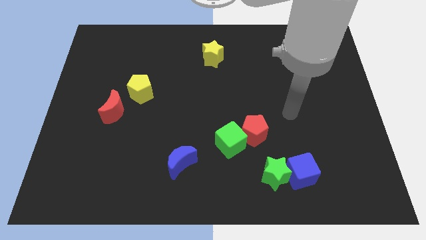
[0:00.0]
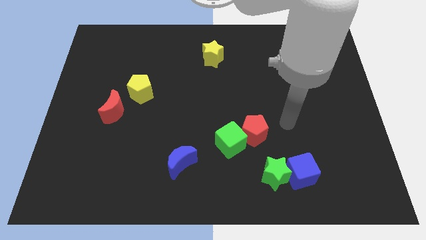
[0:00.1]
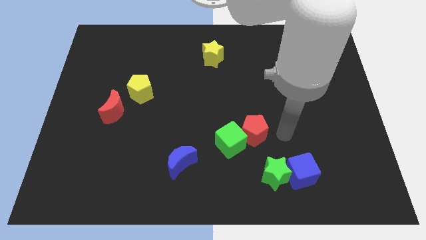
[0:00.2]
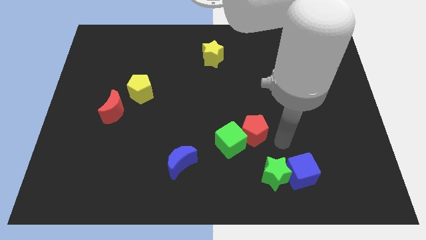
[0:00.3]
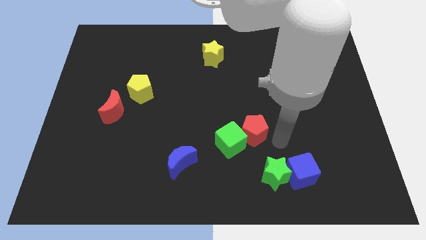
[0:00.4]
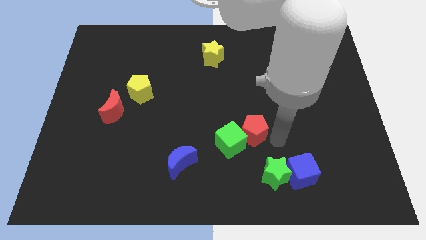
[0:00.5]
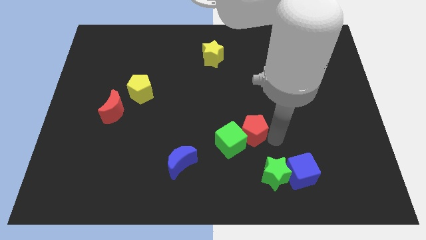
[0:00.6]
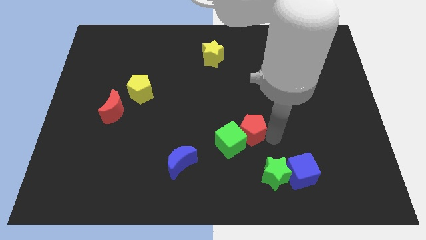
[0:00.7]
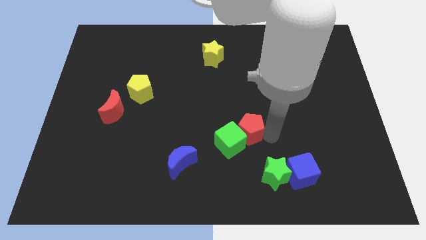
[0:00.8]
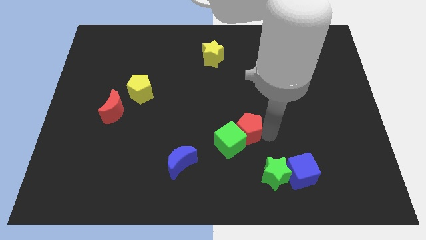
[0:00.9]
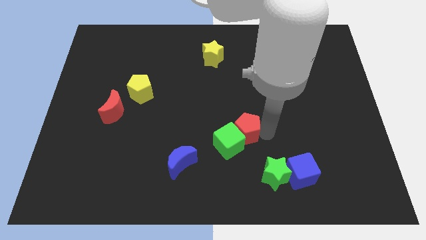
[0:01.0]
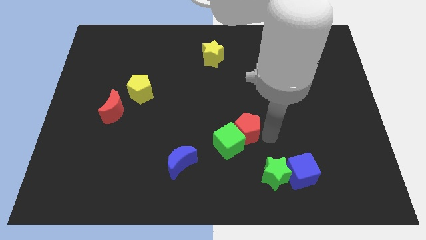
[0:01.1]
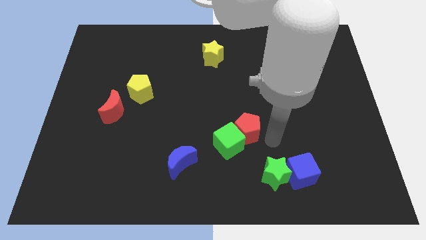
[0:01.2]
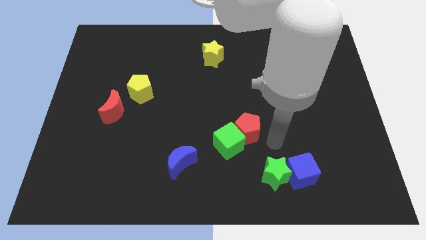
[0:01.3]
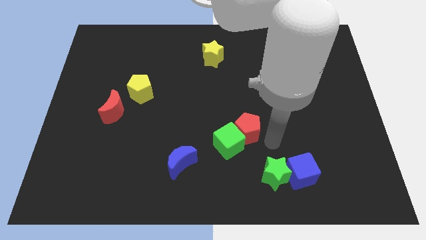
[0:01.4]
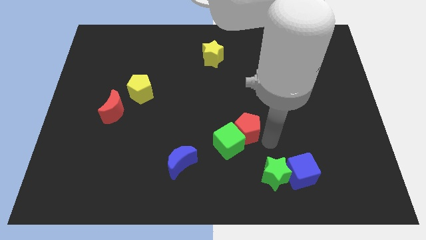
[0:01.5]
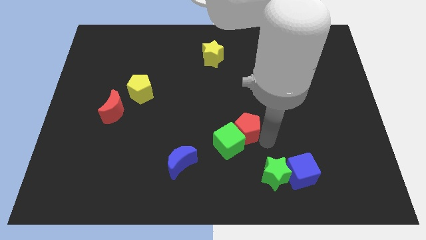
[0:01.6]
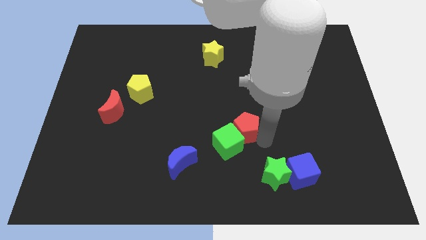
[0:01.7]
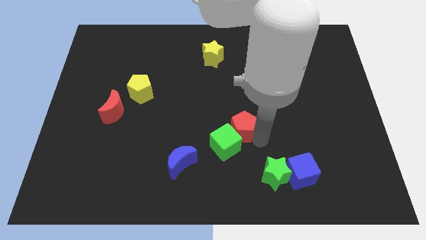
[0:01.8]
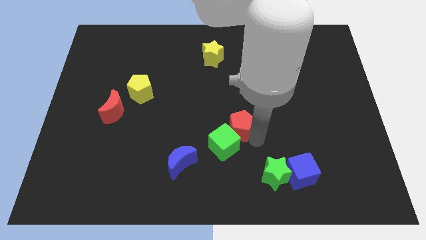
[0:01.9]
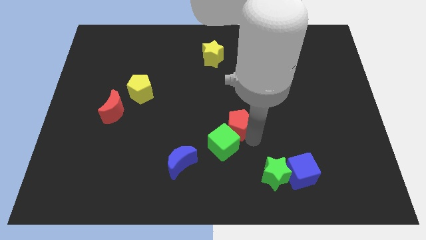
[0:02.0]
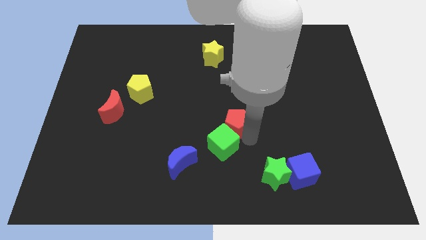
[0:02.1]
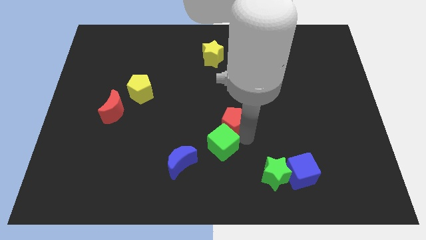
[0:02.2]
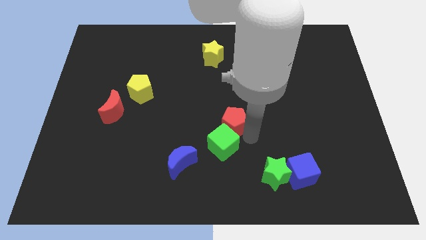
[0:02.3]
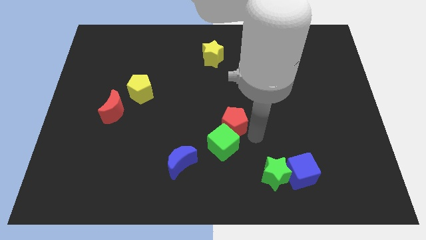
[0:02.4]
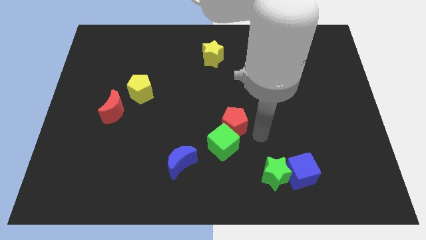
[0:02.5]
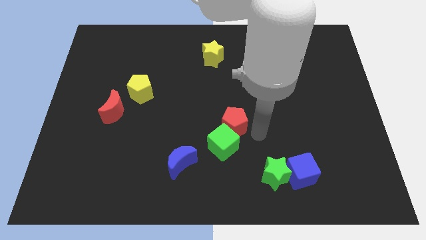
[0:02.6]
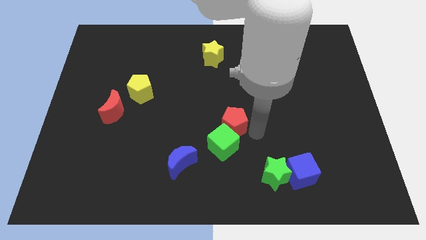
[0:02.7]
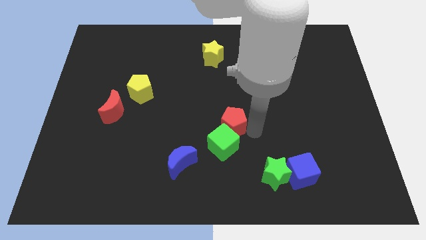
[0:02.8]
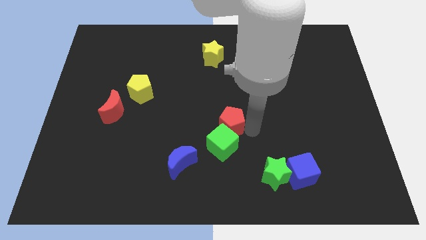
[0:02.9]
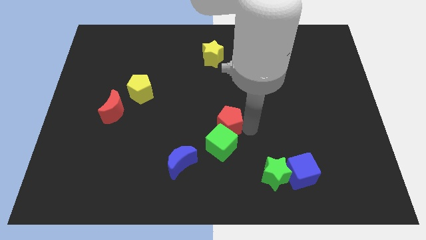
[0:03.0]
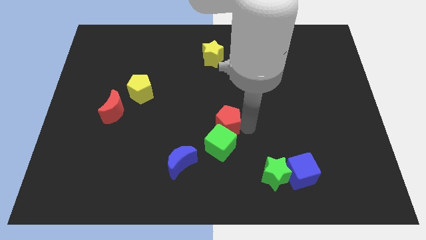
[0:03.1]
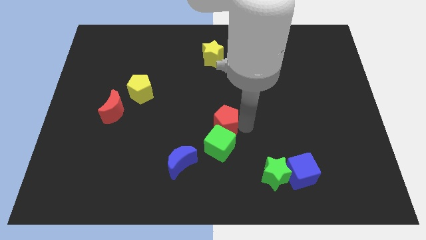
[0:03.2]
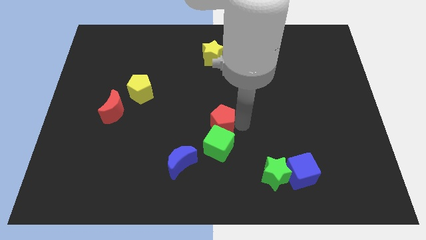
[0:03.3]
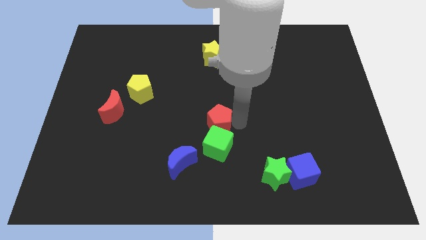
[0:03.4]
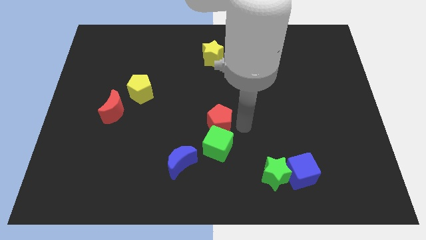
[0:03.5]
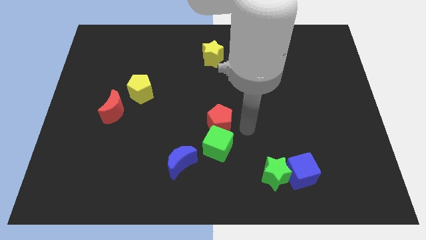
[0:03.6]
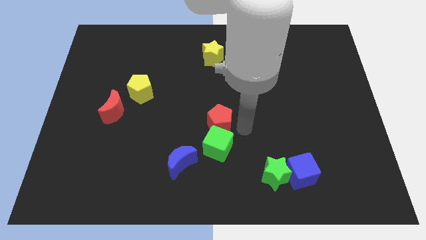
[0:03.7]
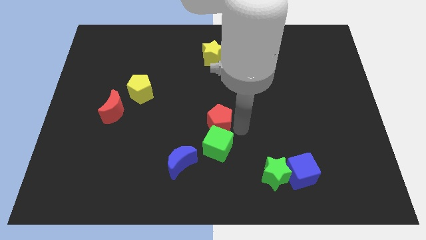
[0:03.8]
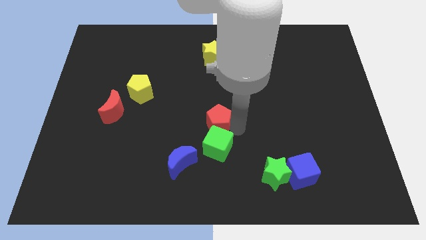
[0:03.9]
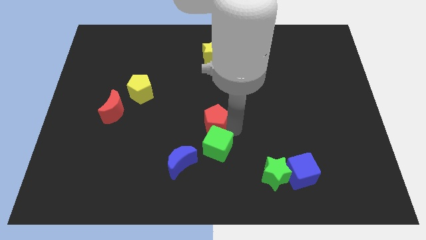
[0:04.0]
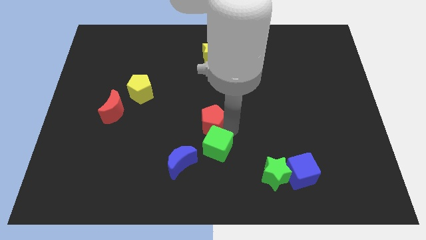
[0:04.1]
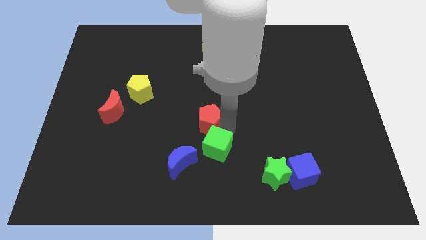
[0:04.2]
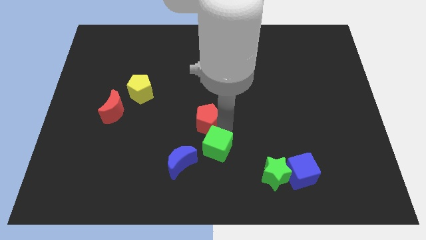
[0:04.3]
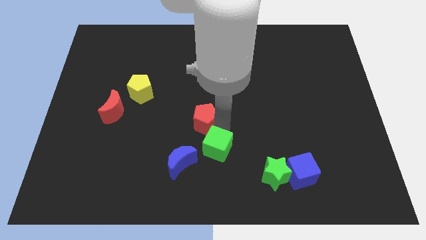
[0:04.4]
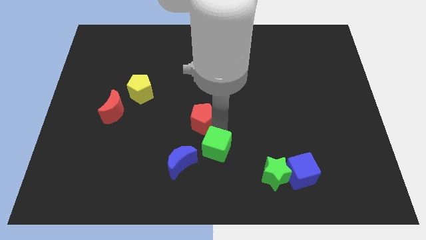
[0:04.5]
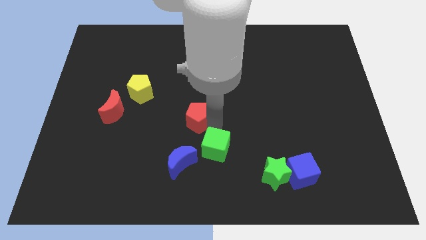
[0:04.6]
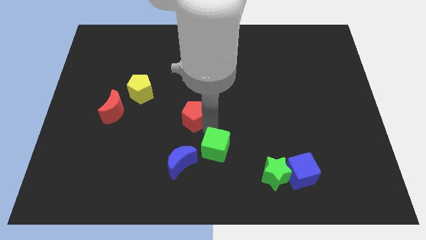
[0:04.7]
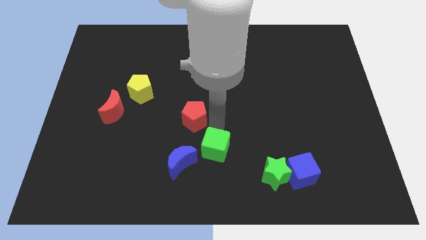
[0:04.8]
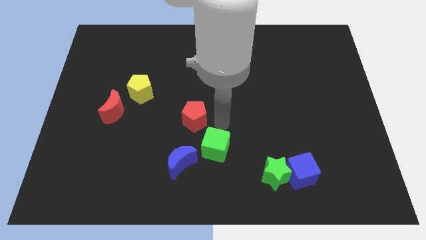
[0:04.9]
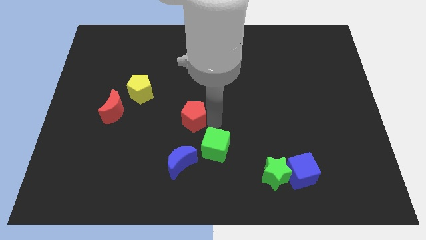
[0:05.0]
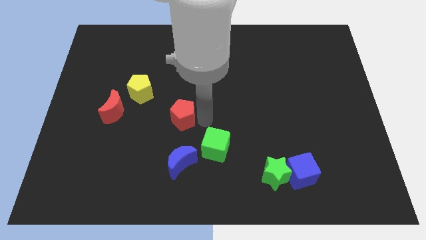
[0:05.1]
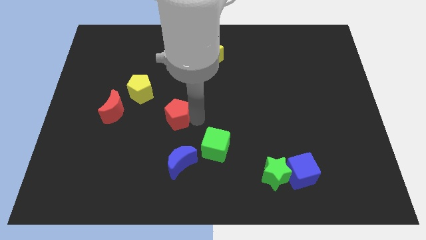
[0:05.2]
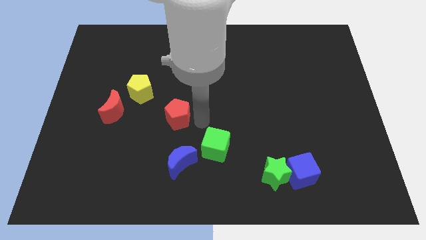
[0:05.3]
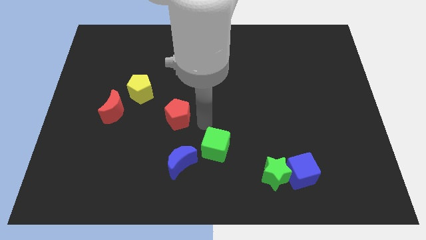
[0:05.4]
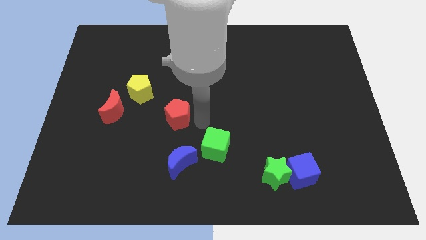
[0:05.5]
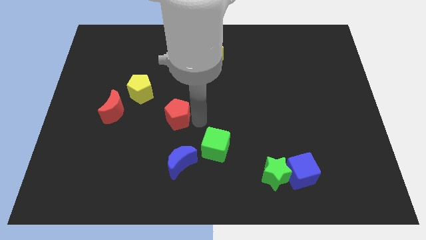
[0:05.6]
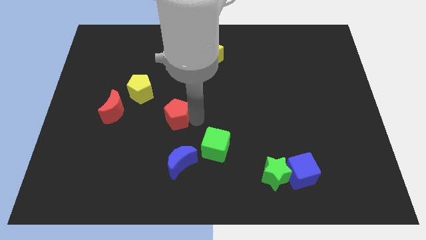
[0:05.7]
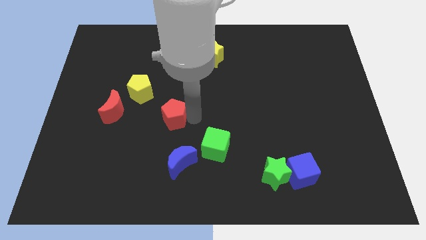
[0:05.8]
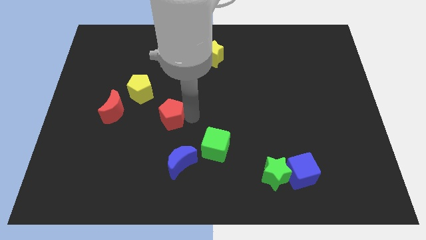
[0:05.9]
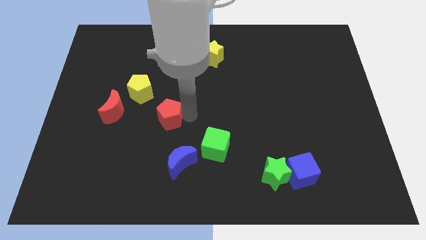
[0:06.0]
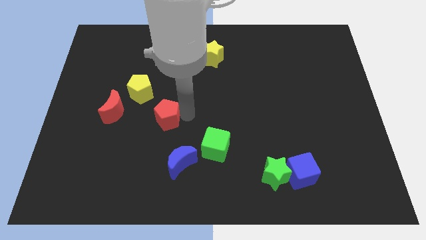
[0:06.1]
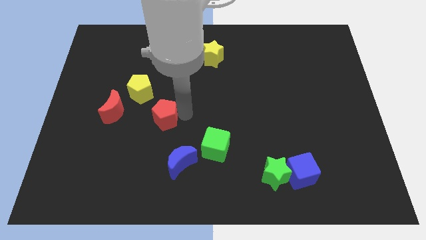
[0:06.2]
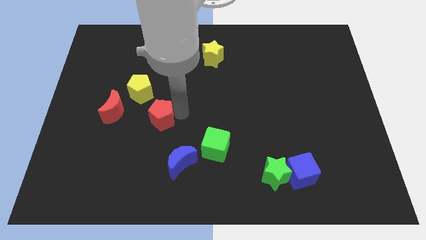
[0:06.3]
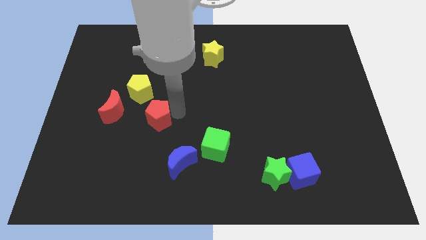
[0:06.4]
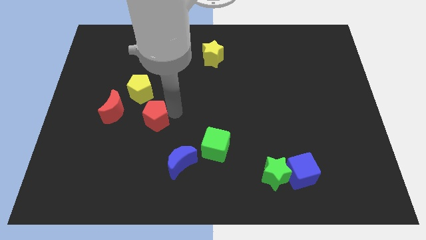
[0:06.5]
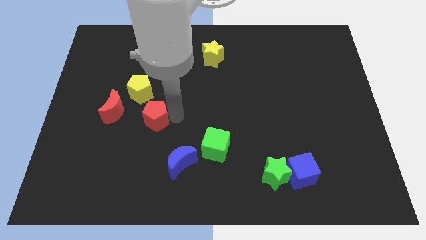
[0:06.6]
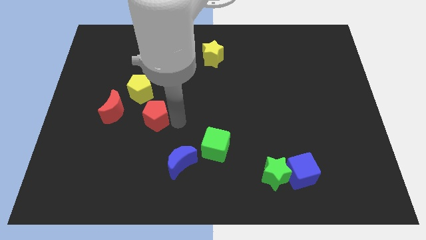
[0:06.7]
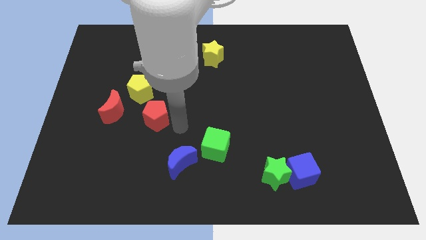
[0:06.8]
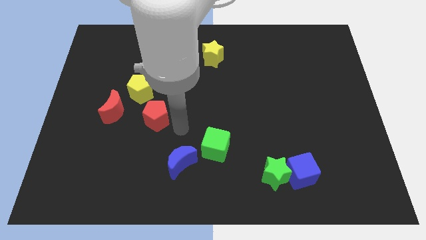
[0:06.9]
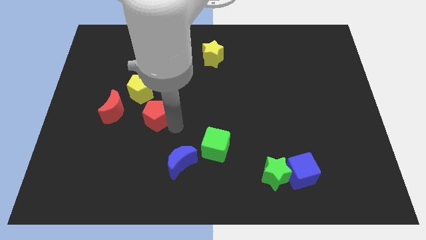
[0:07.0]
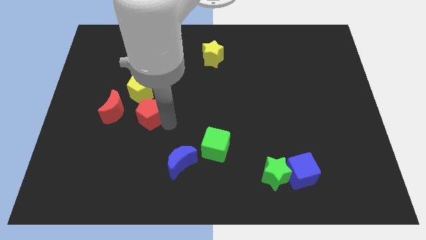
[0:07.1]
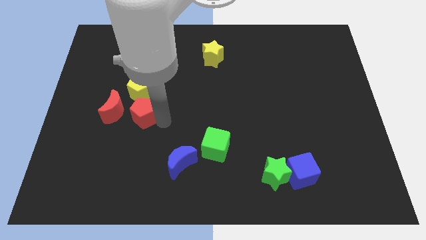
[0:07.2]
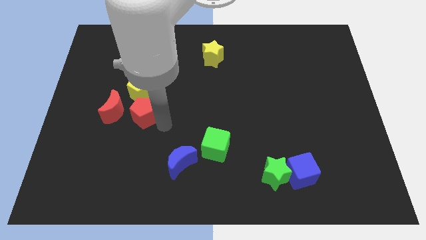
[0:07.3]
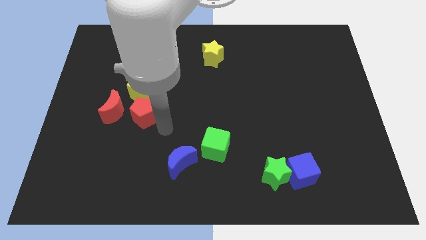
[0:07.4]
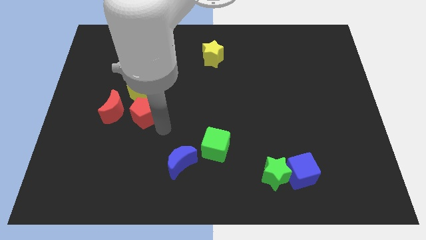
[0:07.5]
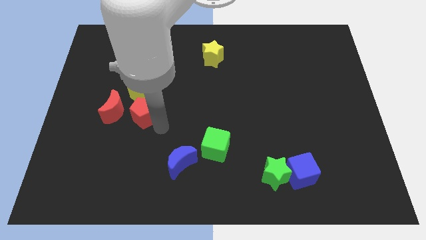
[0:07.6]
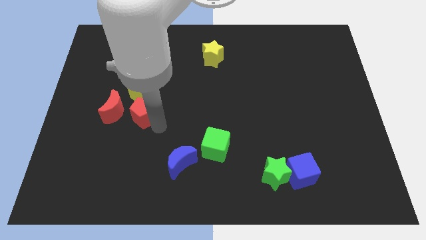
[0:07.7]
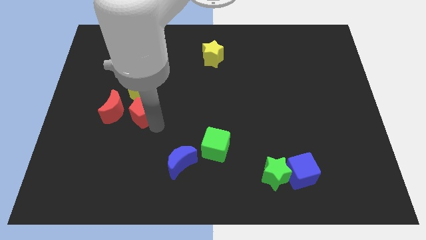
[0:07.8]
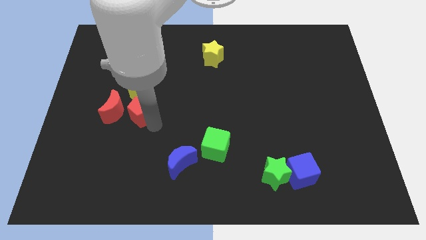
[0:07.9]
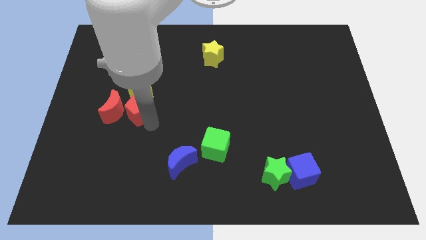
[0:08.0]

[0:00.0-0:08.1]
move the red pentagon towards the red moon

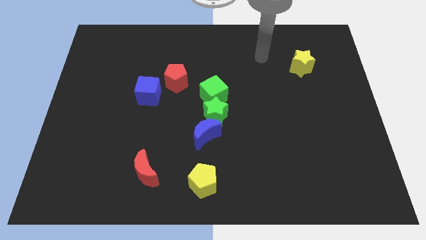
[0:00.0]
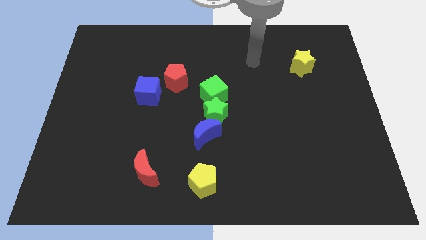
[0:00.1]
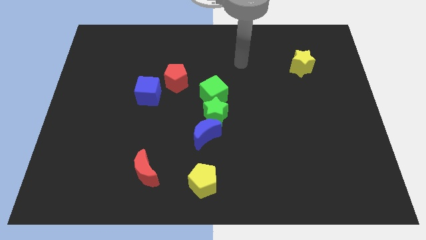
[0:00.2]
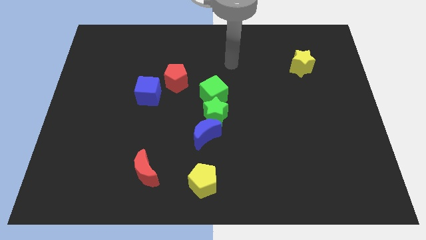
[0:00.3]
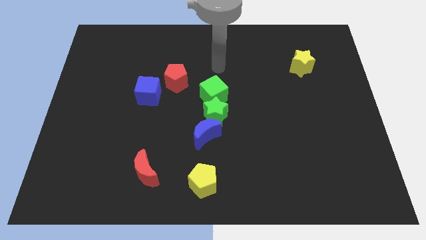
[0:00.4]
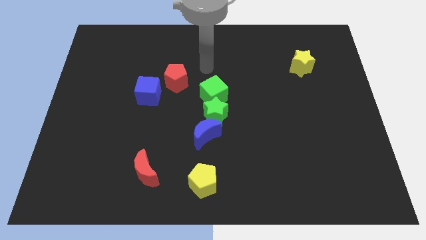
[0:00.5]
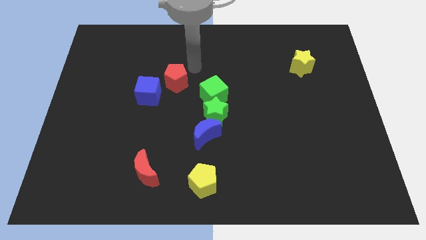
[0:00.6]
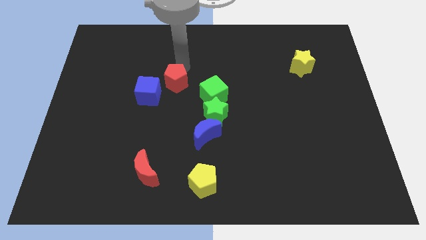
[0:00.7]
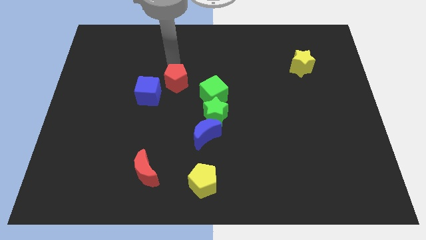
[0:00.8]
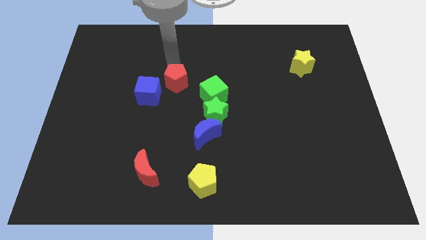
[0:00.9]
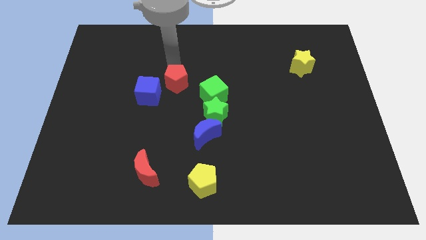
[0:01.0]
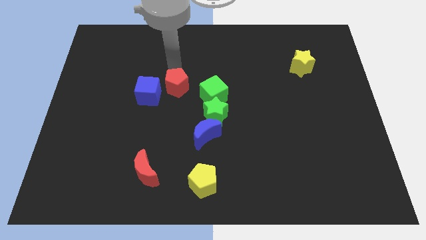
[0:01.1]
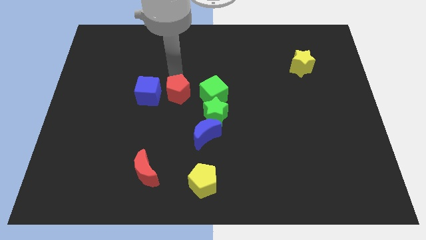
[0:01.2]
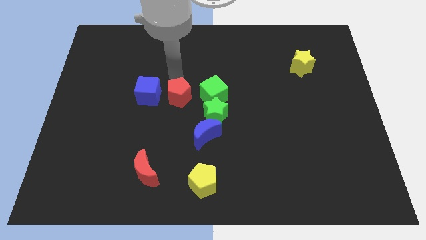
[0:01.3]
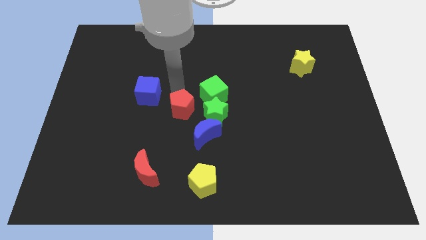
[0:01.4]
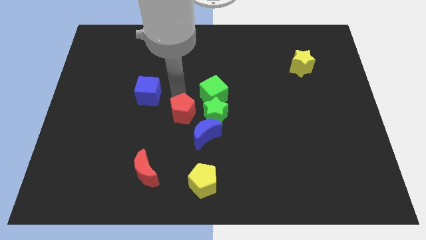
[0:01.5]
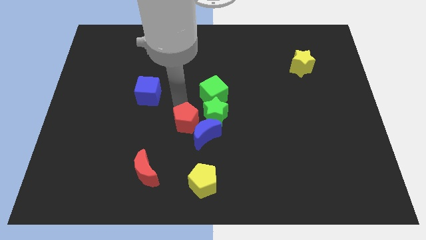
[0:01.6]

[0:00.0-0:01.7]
push the red pentagon to the blue moon
